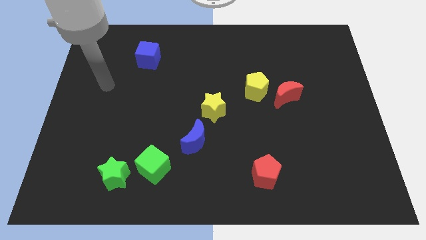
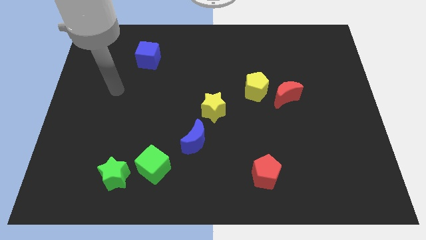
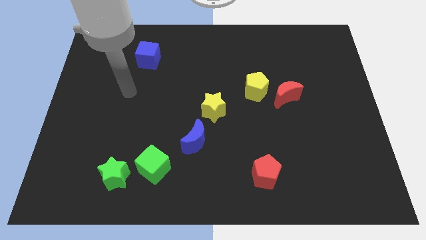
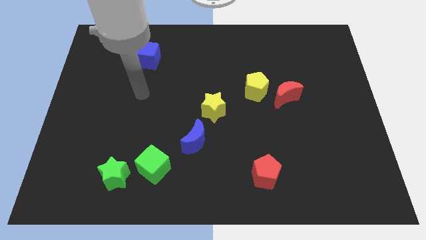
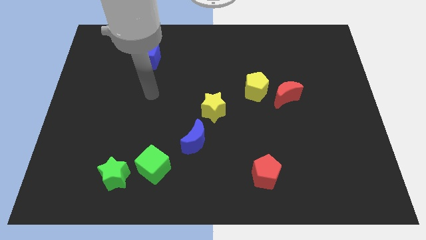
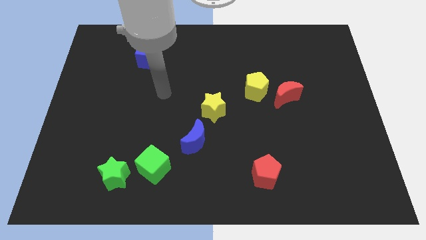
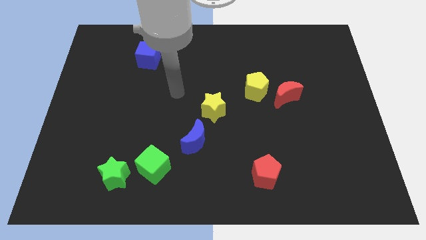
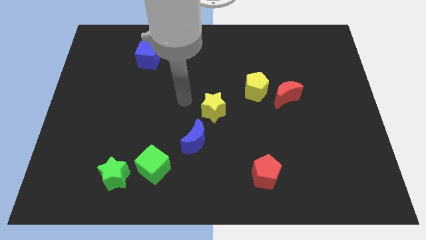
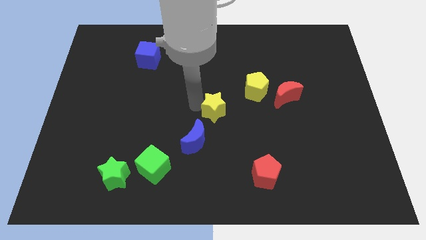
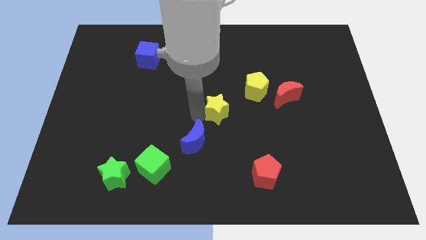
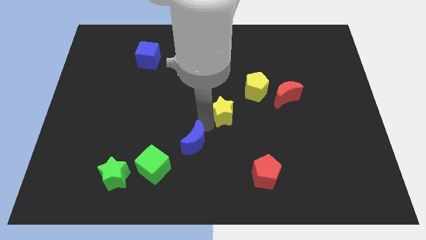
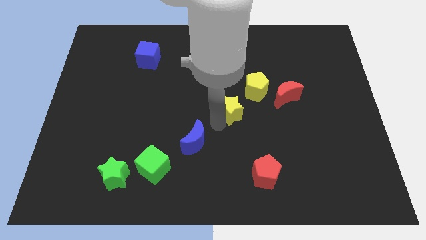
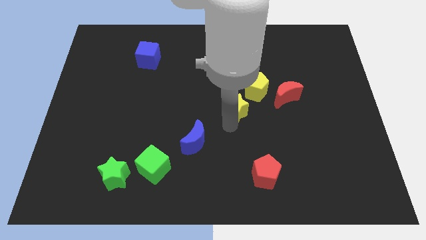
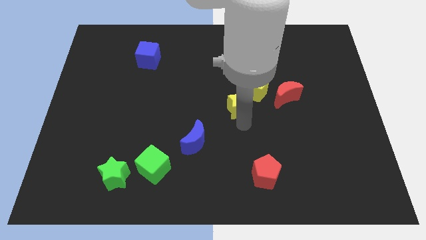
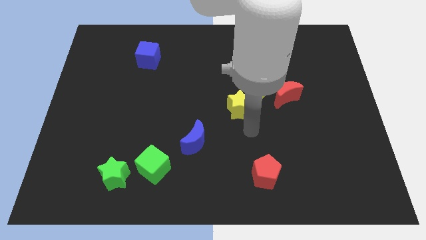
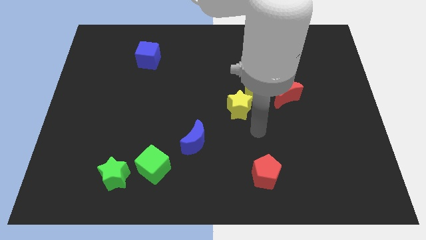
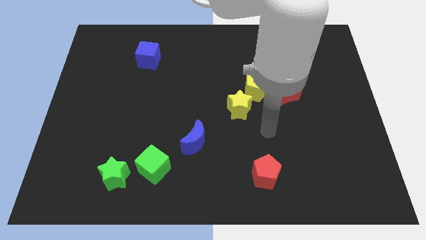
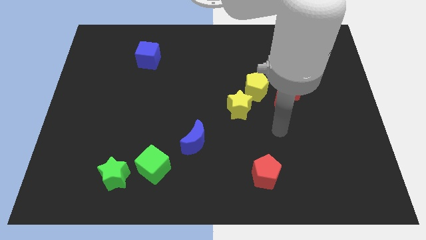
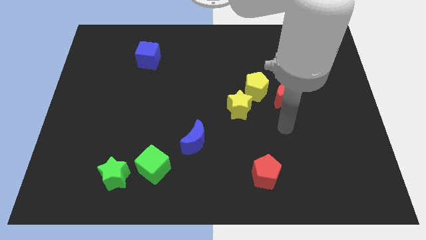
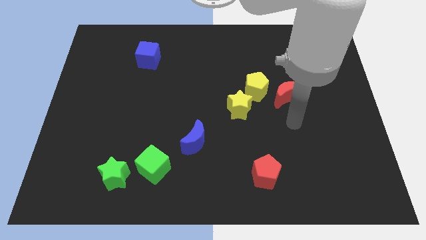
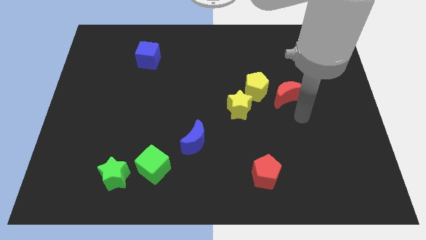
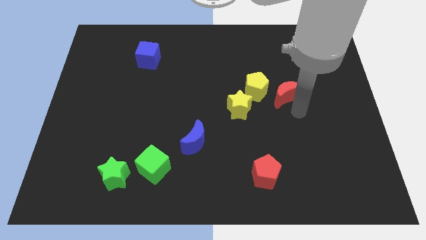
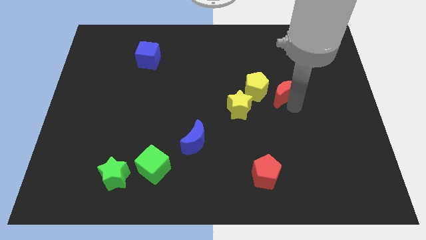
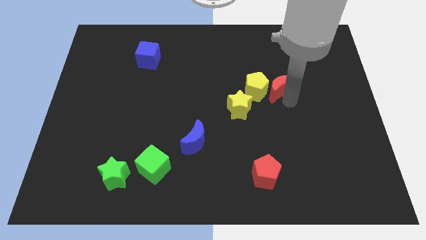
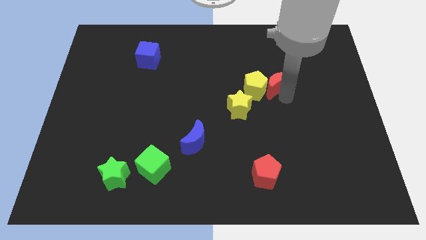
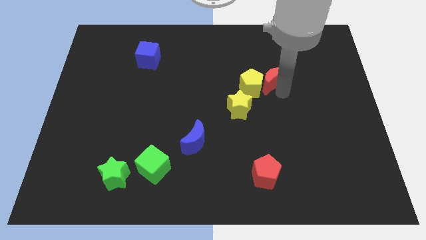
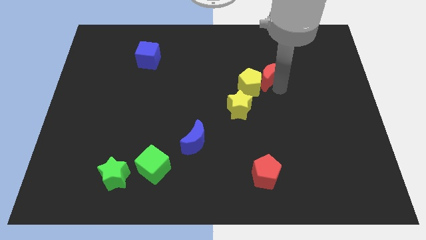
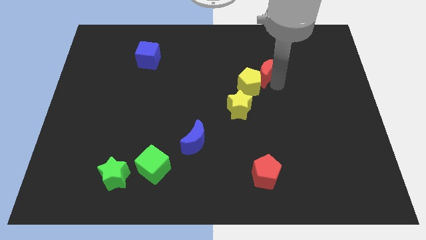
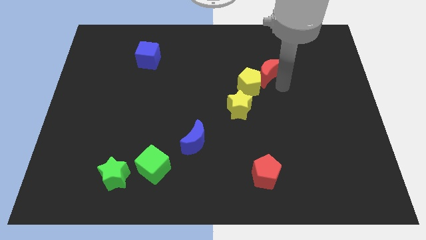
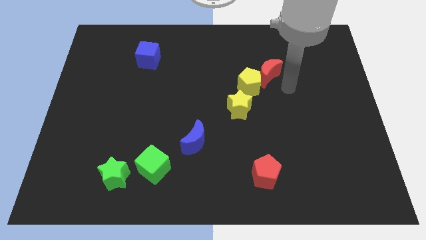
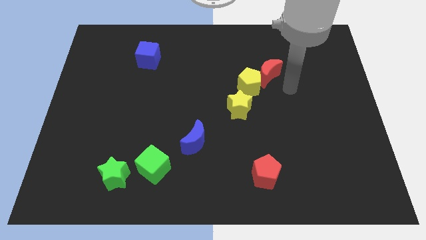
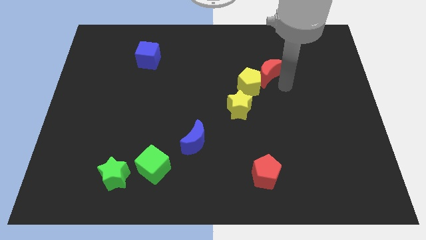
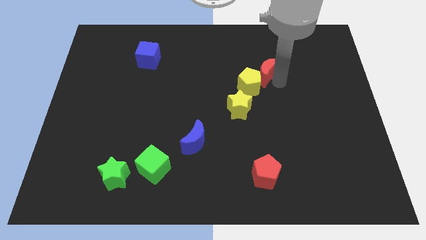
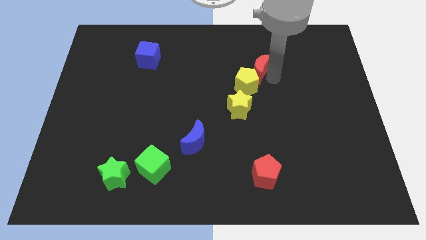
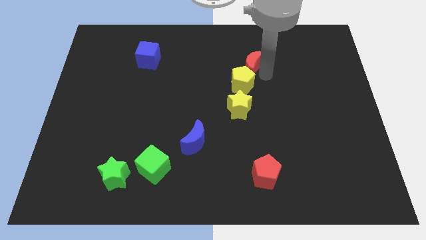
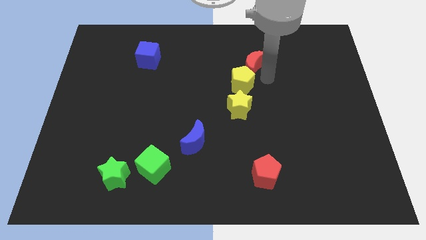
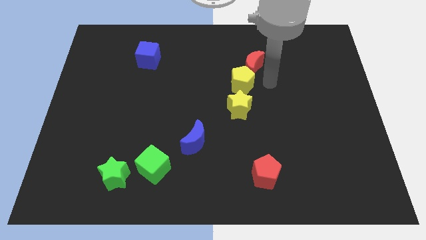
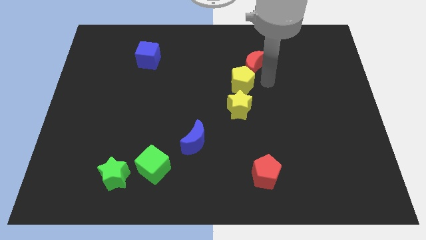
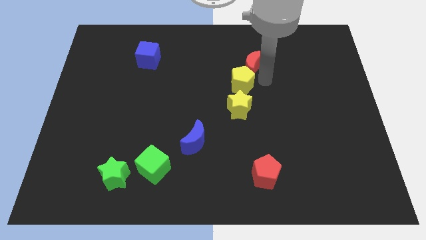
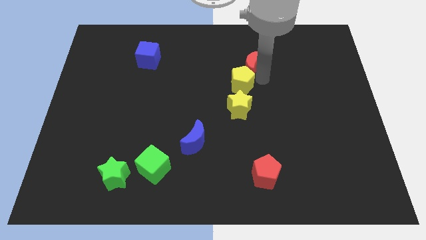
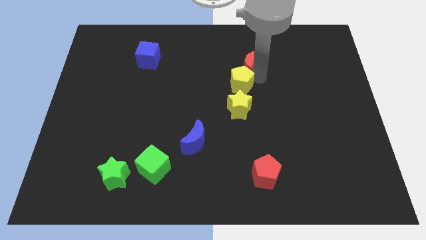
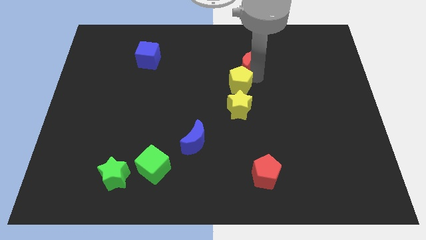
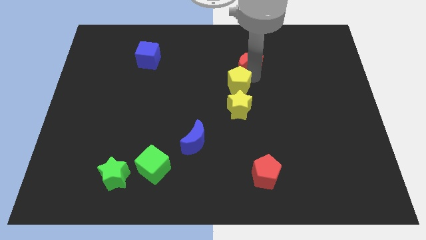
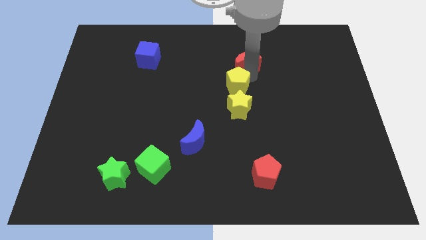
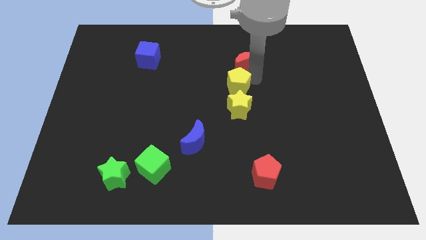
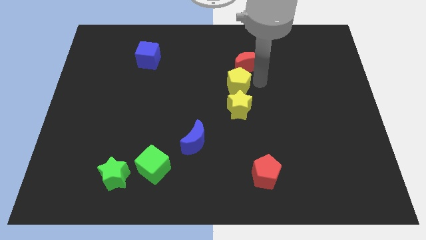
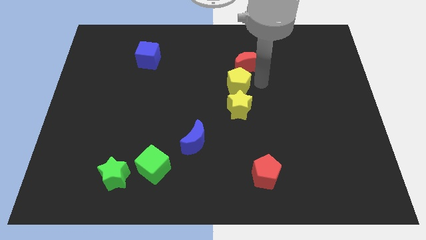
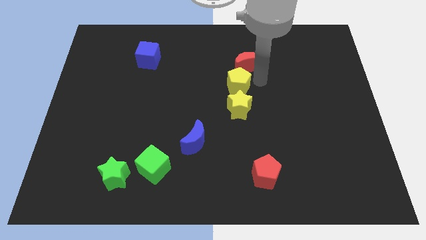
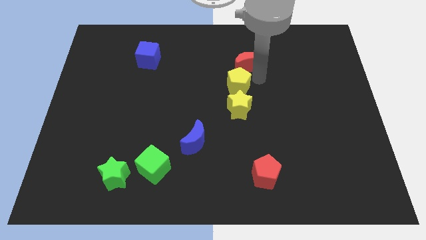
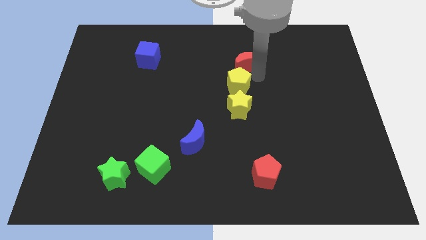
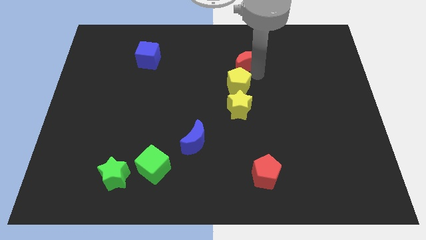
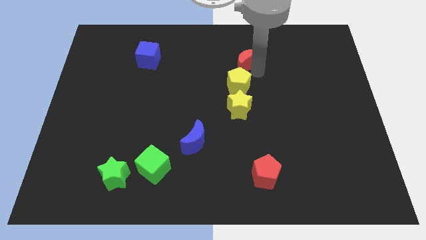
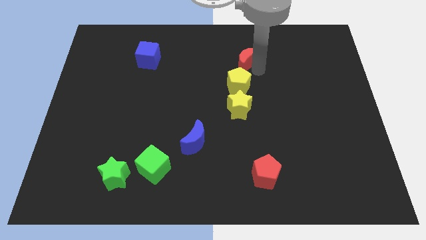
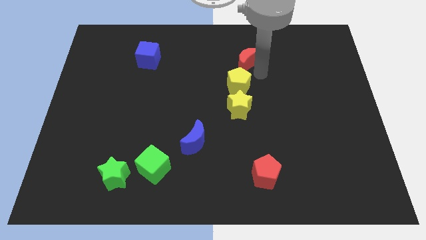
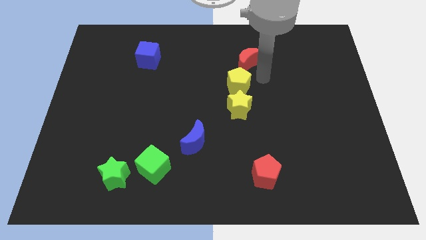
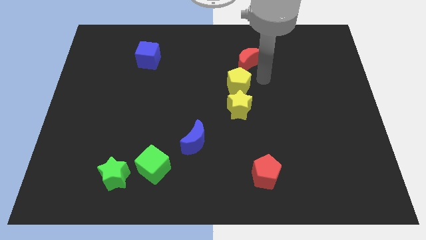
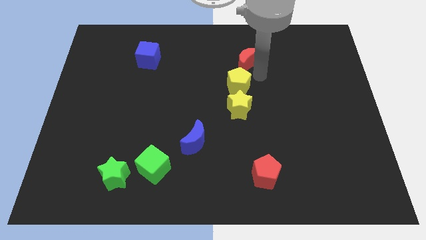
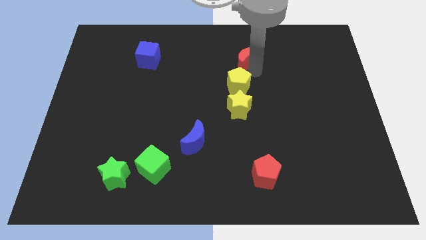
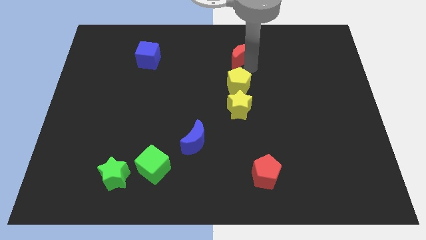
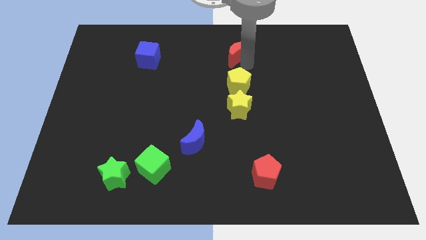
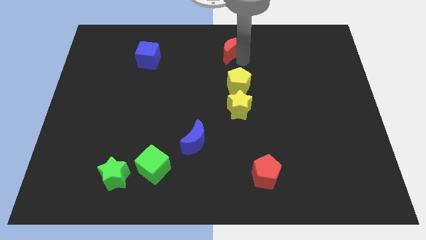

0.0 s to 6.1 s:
push the red moon to the towards your base

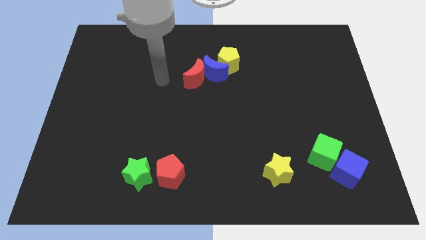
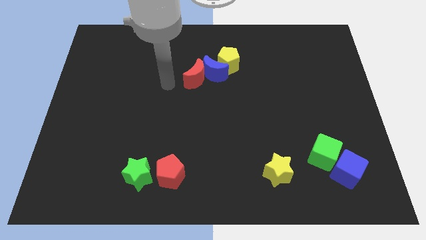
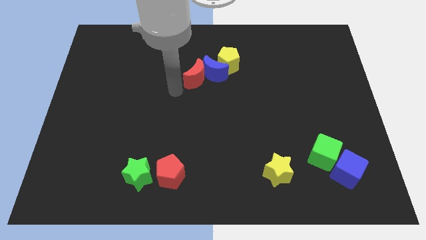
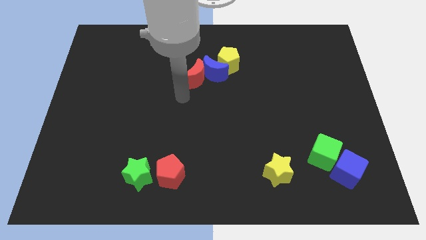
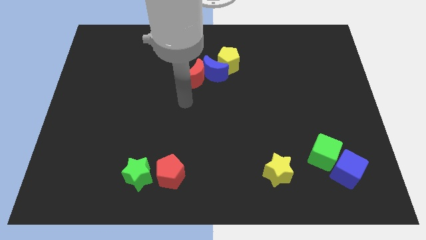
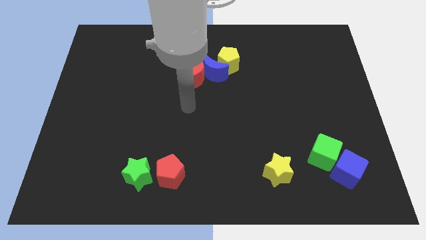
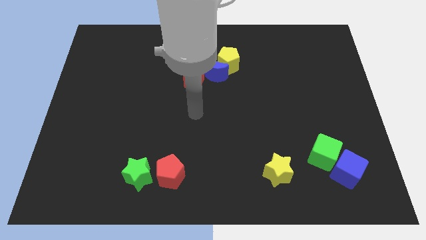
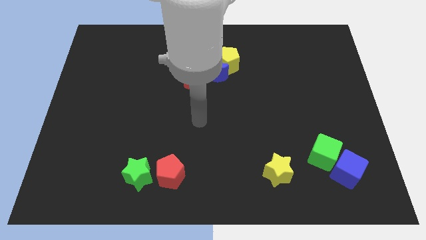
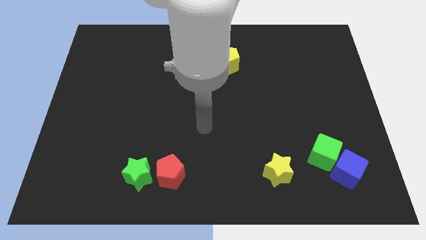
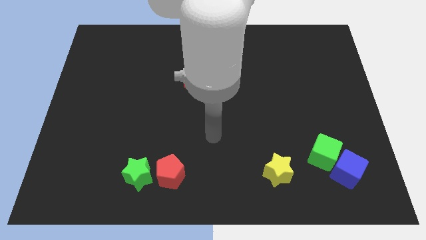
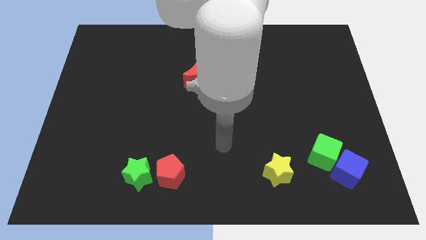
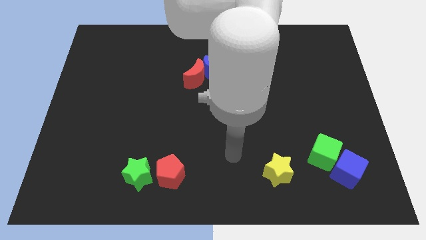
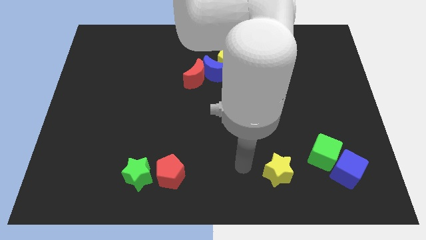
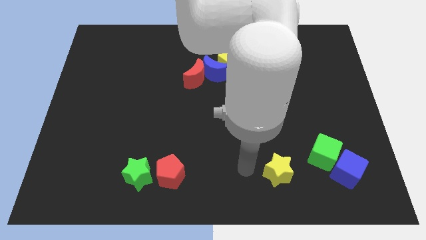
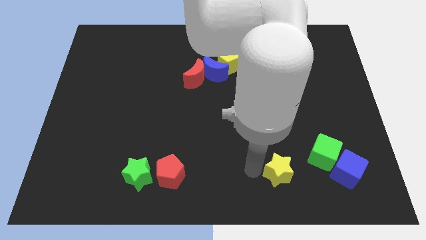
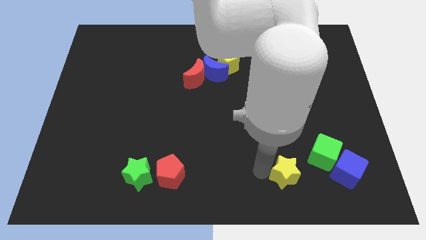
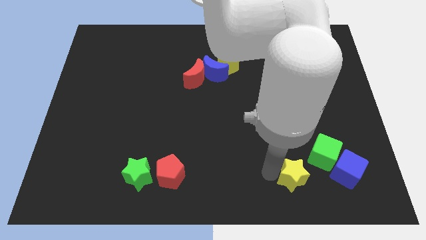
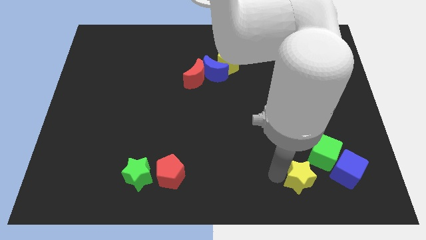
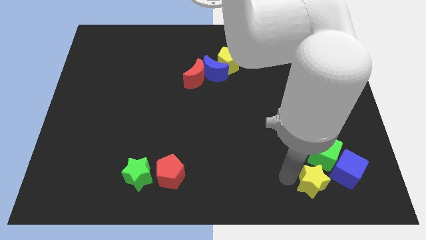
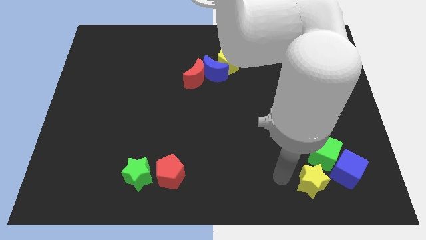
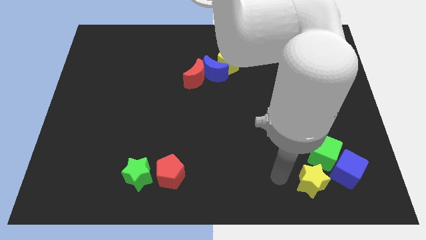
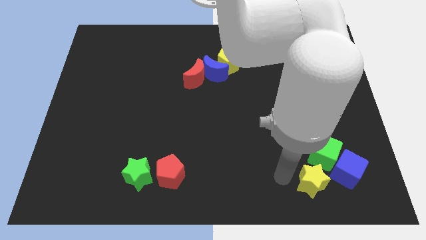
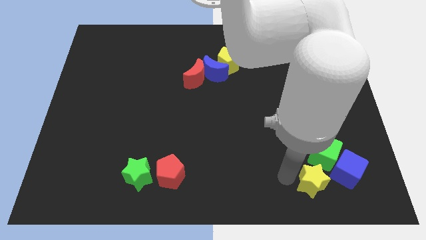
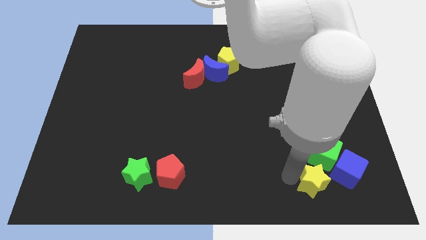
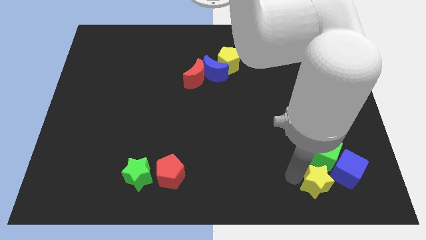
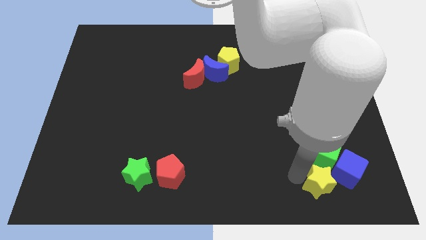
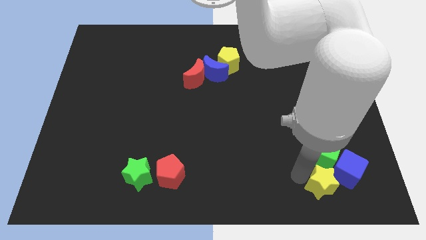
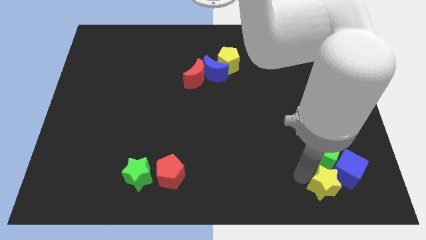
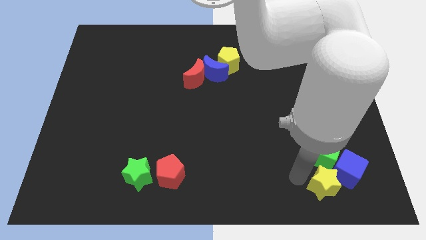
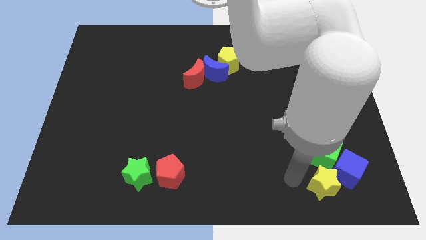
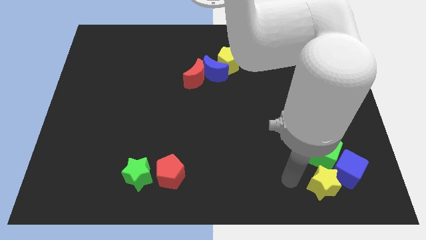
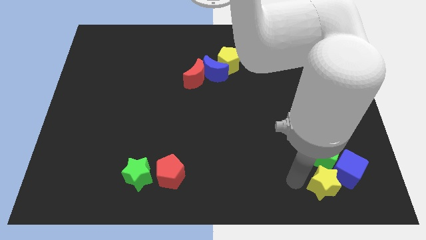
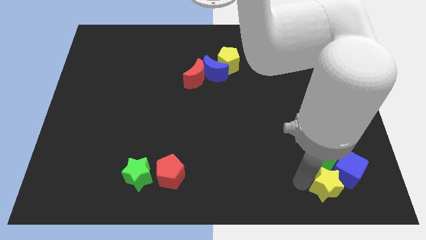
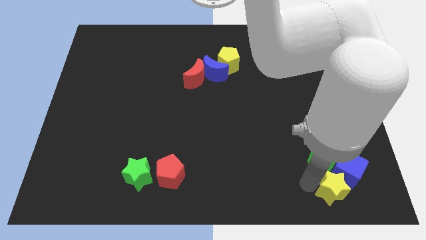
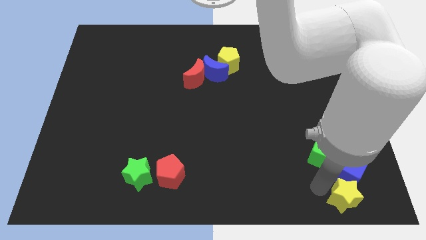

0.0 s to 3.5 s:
push the yellow star to the bottom right
